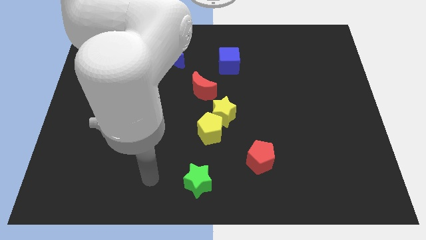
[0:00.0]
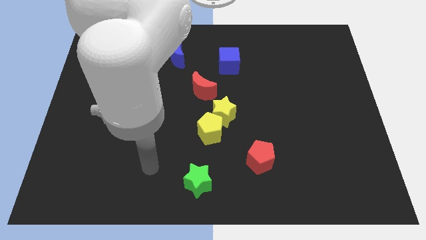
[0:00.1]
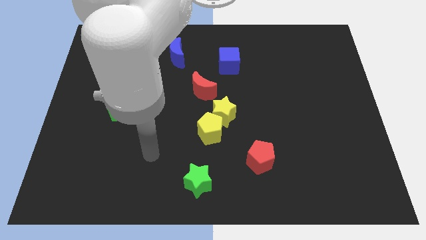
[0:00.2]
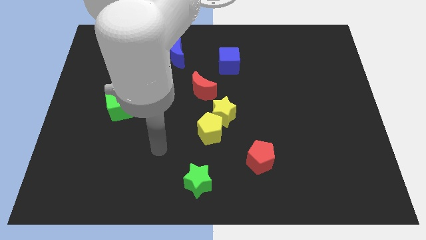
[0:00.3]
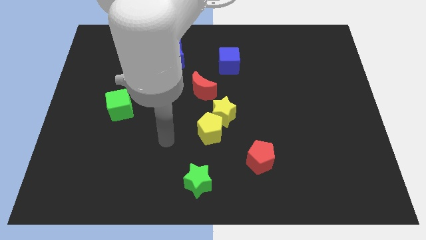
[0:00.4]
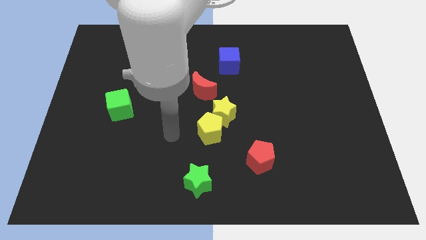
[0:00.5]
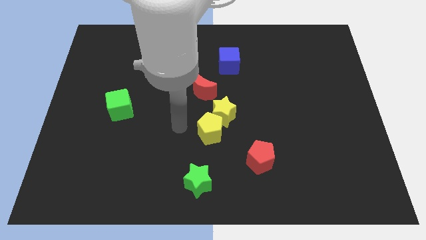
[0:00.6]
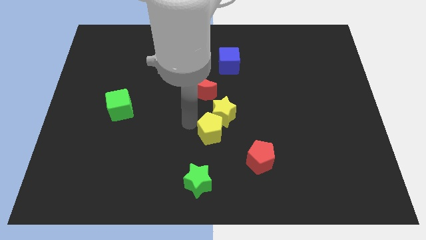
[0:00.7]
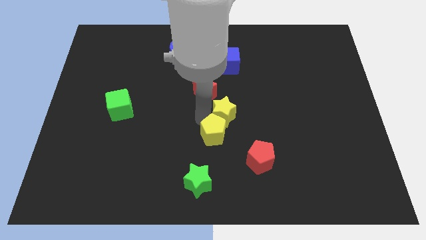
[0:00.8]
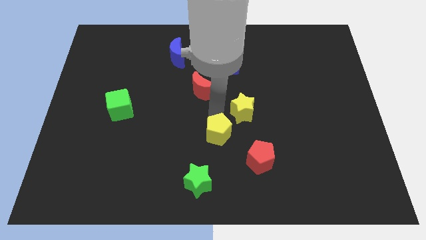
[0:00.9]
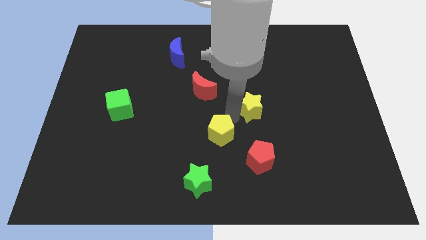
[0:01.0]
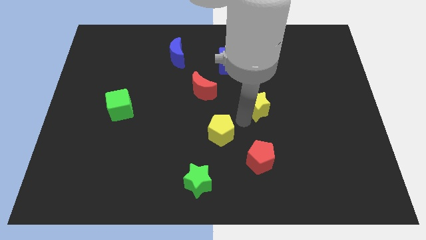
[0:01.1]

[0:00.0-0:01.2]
separate the yellow pentagon from the yellow star

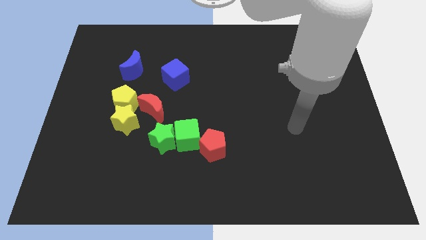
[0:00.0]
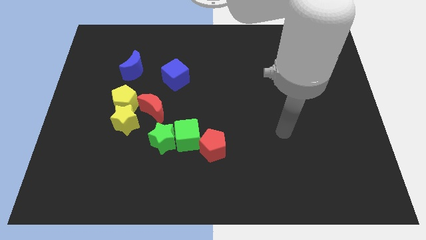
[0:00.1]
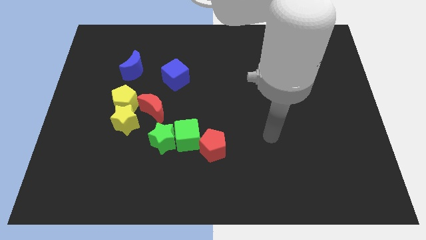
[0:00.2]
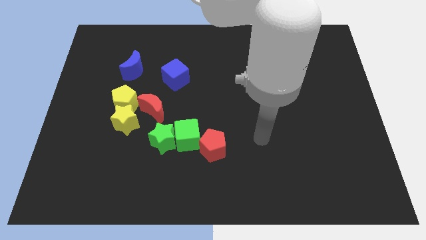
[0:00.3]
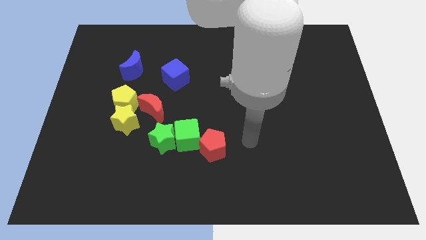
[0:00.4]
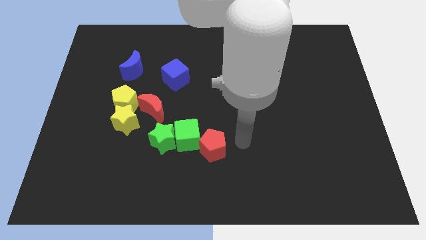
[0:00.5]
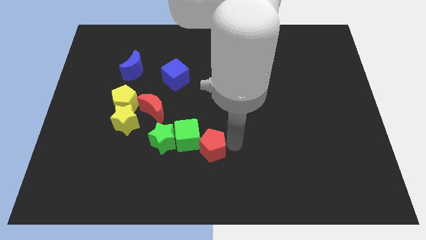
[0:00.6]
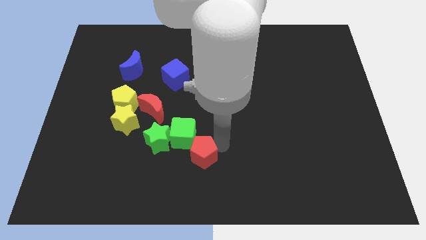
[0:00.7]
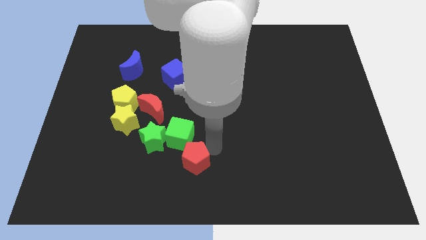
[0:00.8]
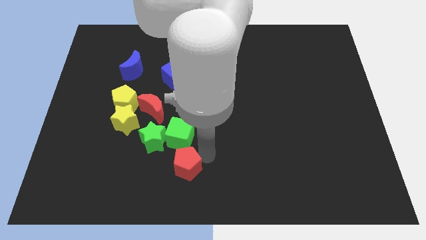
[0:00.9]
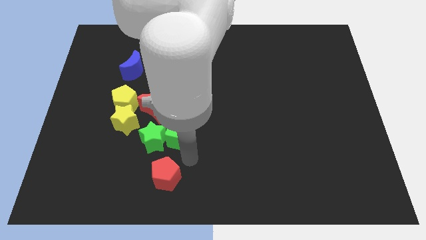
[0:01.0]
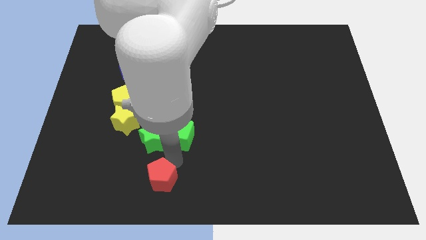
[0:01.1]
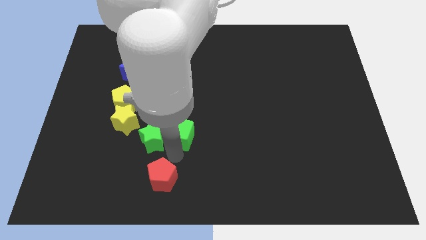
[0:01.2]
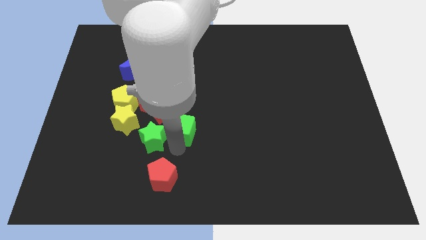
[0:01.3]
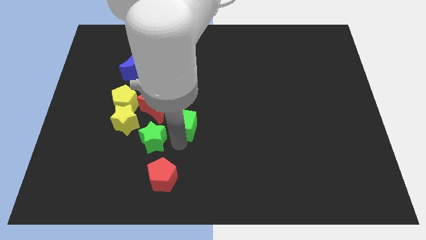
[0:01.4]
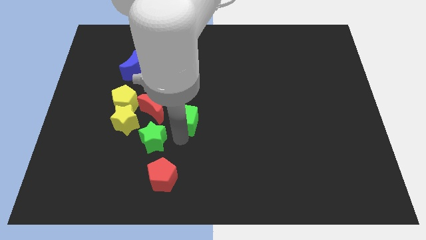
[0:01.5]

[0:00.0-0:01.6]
move the green cube away from the green star and red pentagon

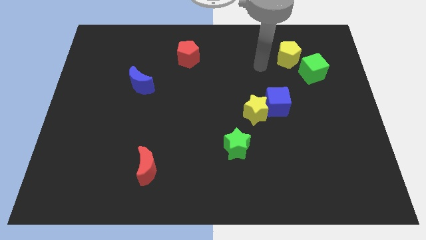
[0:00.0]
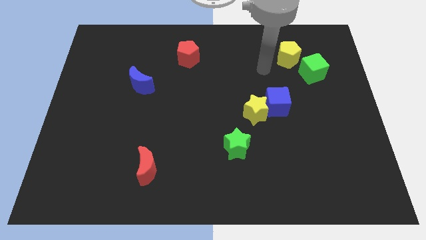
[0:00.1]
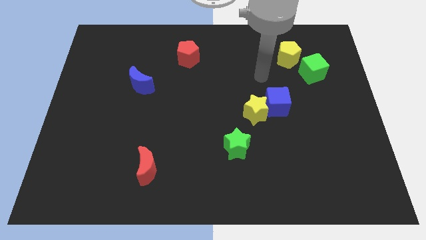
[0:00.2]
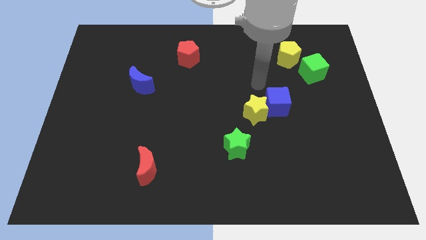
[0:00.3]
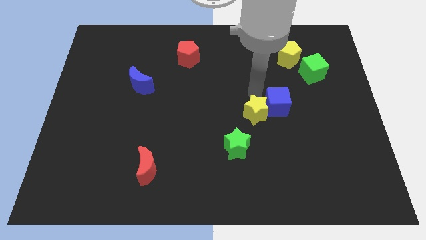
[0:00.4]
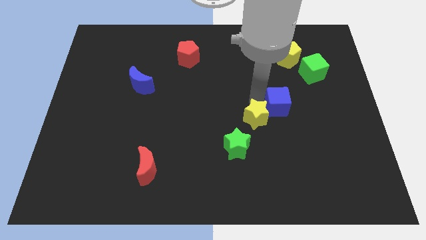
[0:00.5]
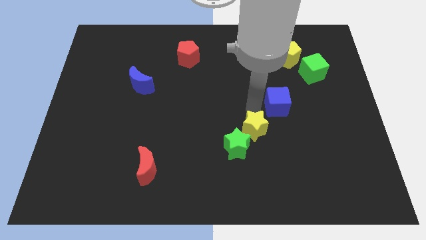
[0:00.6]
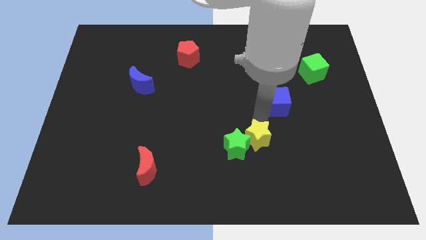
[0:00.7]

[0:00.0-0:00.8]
pull the blue cube apart from the yellow star

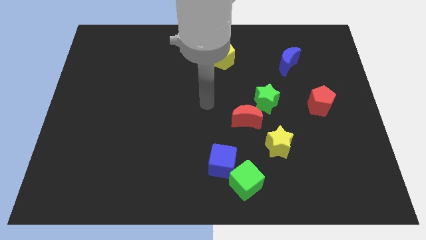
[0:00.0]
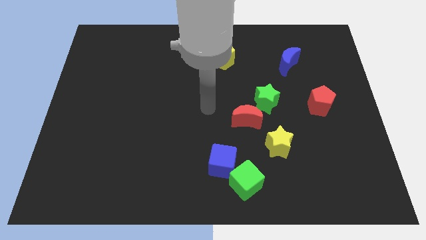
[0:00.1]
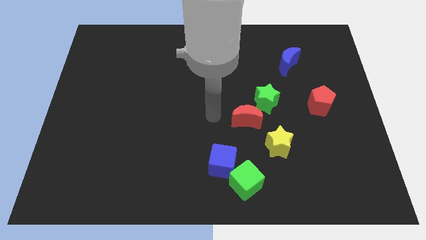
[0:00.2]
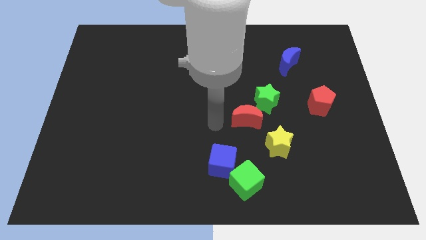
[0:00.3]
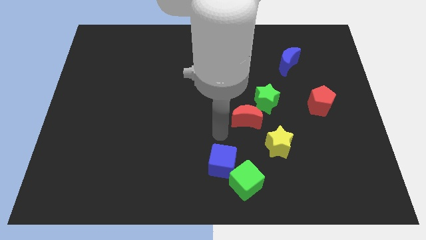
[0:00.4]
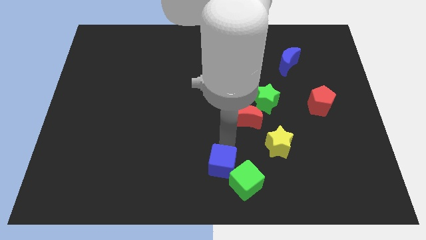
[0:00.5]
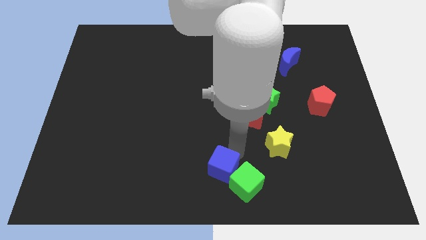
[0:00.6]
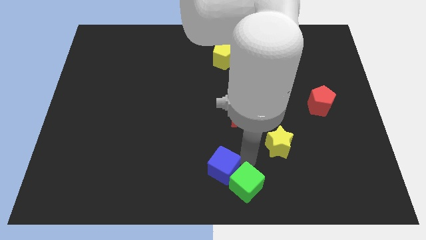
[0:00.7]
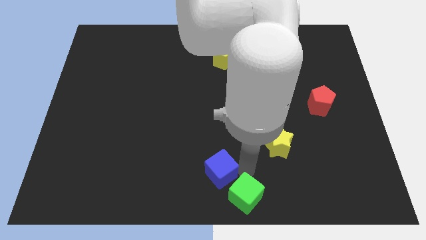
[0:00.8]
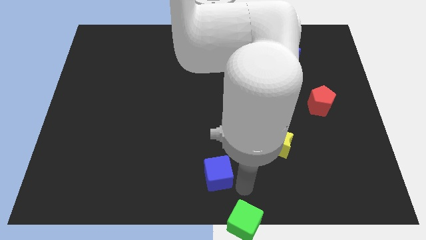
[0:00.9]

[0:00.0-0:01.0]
separate the blue cube from the green cube

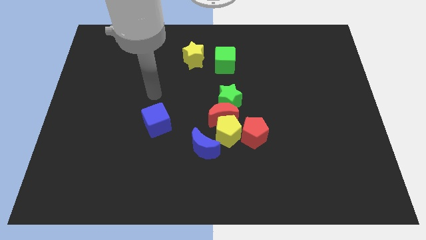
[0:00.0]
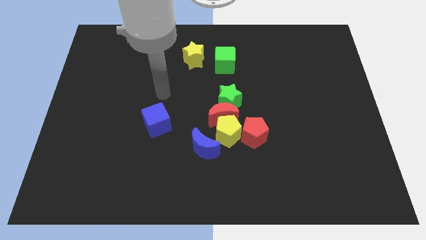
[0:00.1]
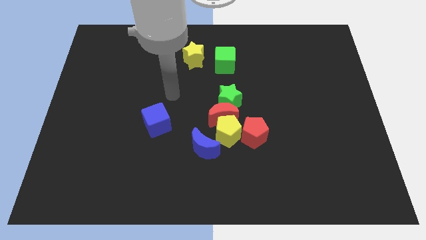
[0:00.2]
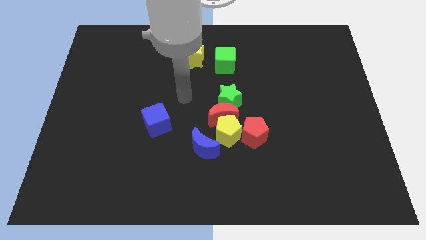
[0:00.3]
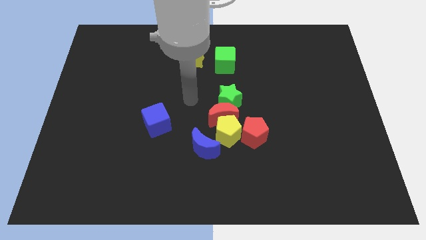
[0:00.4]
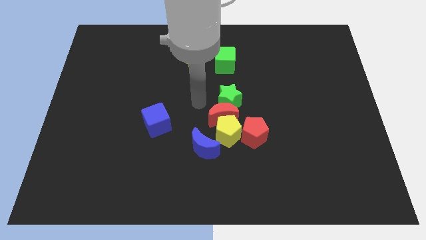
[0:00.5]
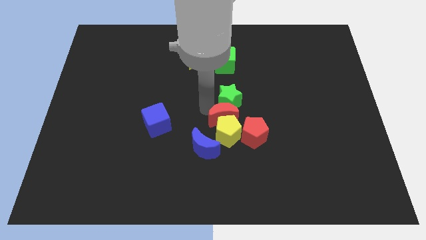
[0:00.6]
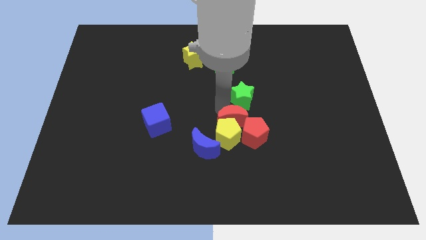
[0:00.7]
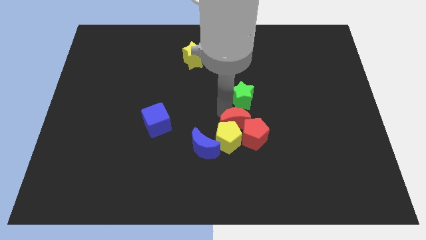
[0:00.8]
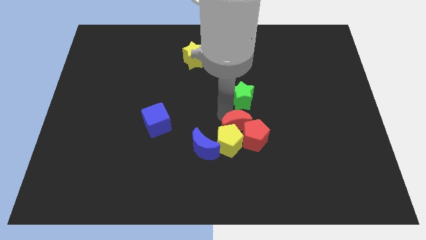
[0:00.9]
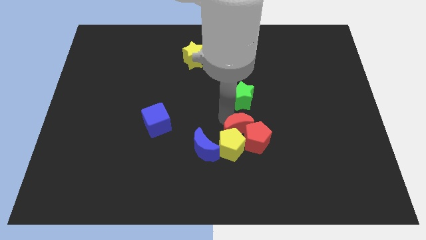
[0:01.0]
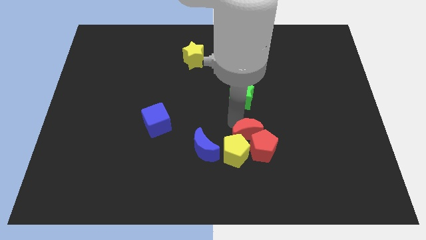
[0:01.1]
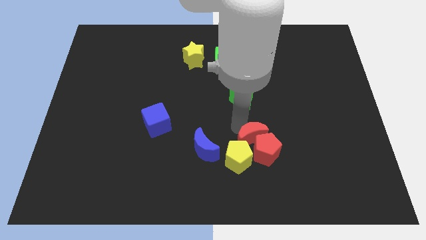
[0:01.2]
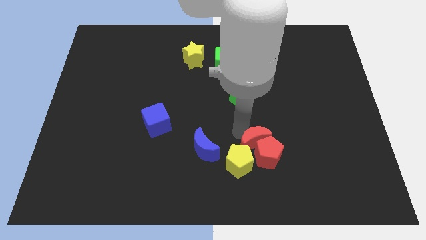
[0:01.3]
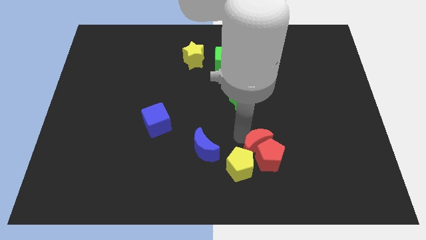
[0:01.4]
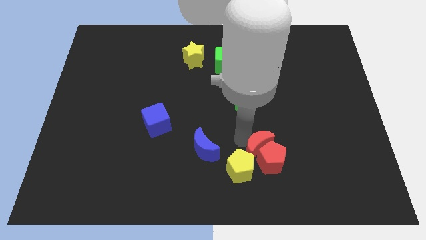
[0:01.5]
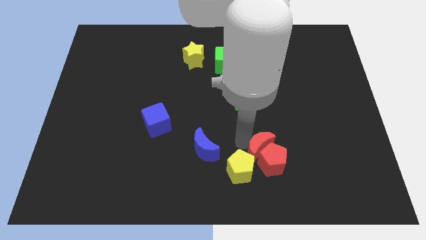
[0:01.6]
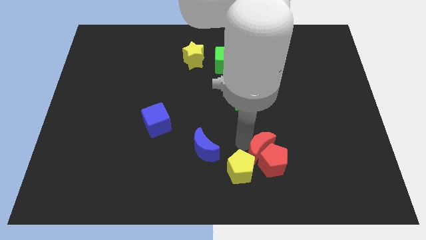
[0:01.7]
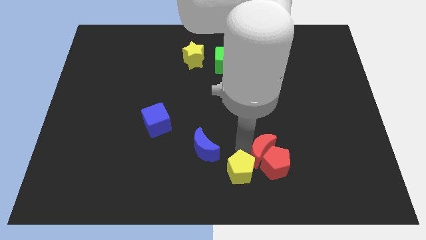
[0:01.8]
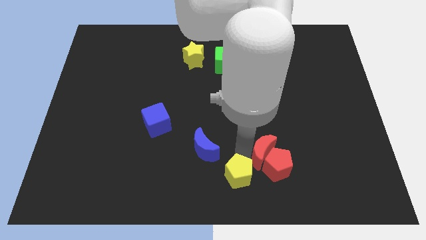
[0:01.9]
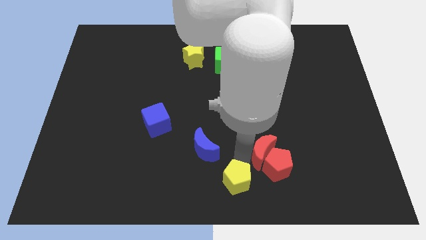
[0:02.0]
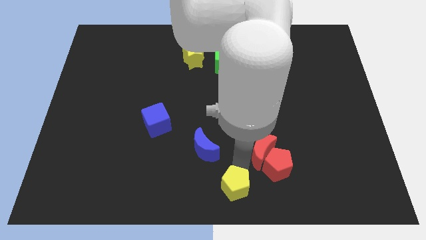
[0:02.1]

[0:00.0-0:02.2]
separate the yellow pentagon from the group

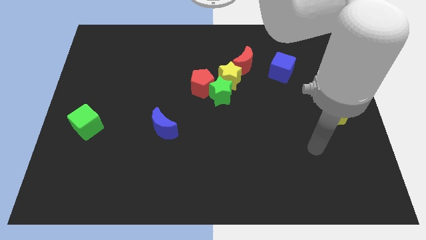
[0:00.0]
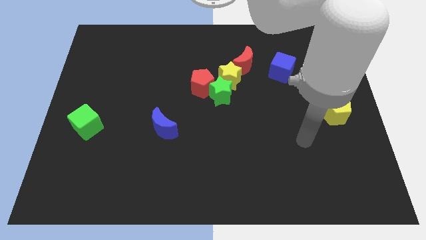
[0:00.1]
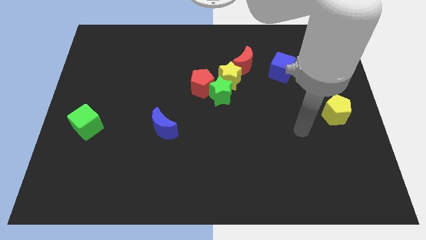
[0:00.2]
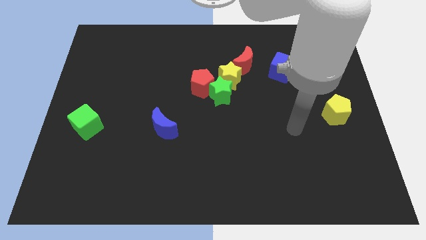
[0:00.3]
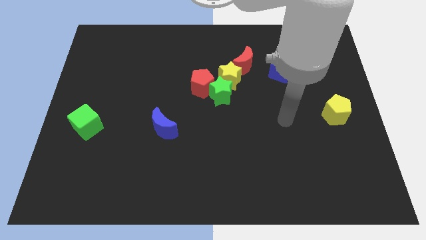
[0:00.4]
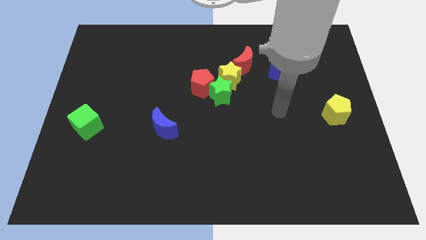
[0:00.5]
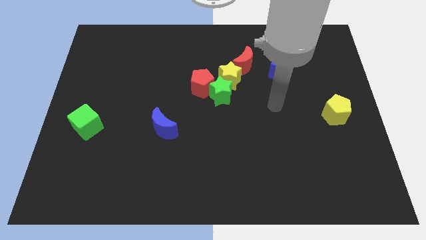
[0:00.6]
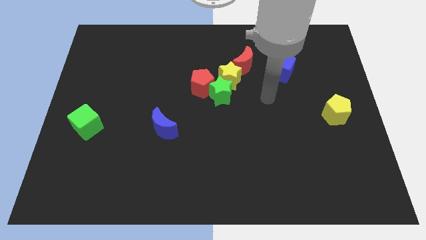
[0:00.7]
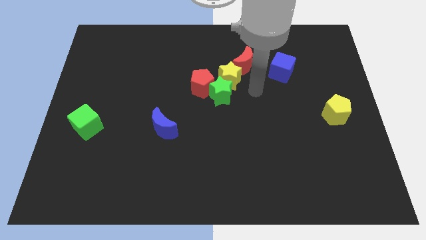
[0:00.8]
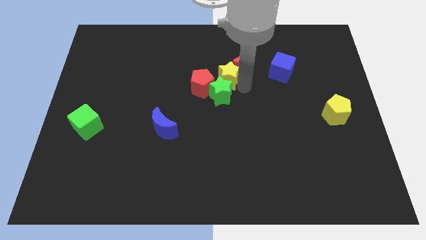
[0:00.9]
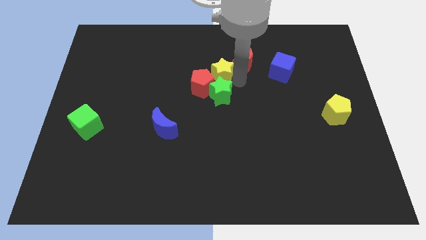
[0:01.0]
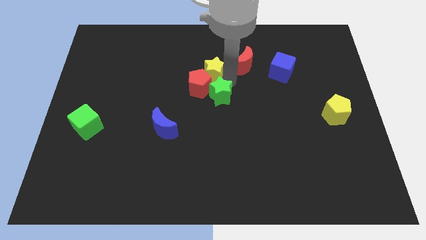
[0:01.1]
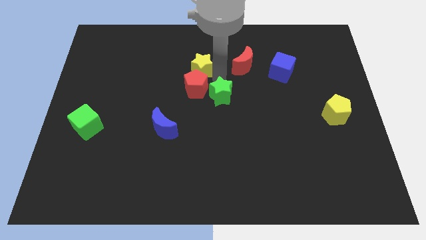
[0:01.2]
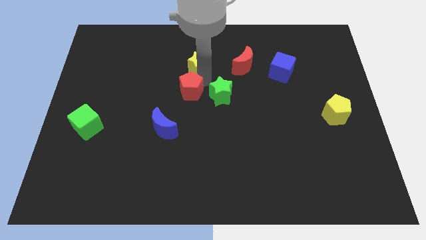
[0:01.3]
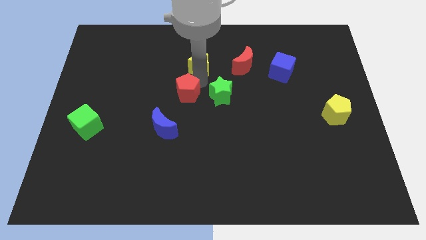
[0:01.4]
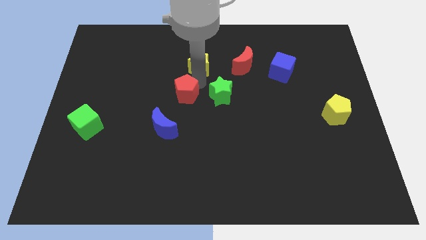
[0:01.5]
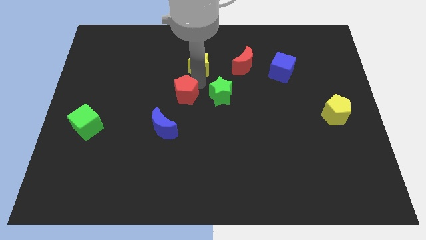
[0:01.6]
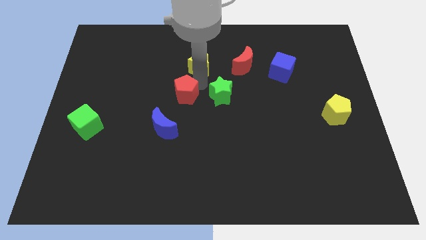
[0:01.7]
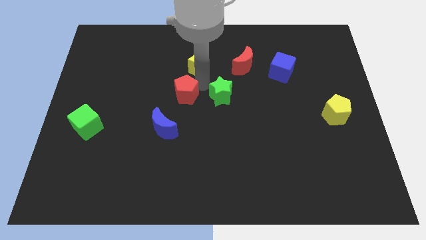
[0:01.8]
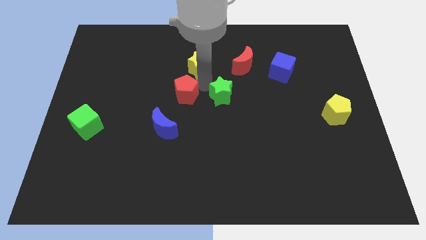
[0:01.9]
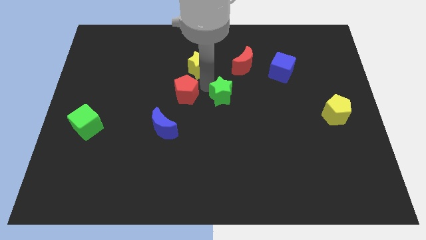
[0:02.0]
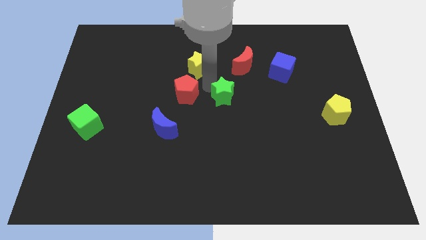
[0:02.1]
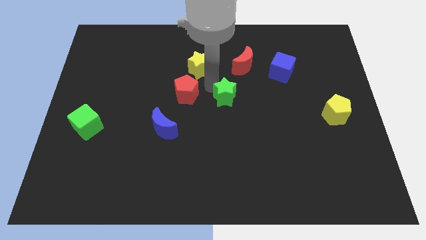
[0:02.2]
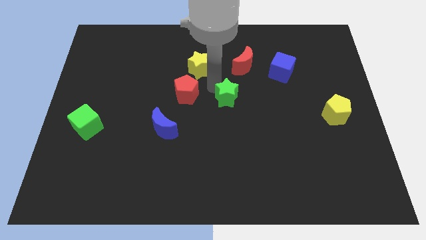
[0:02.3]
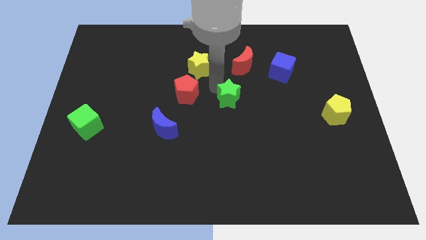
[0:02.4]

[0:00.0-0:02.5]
pull the green star apart from the red pentagon and yellow star
